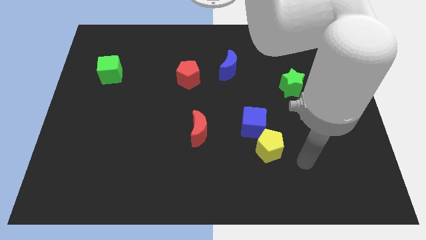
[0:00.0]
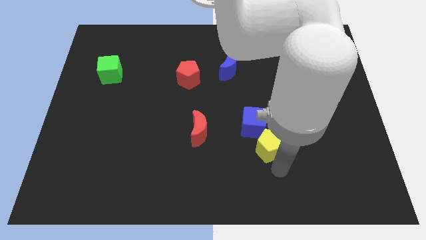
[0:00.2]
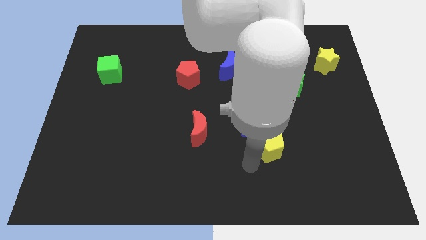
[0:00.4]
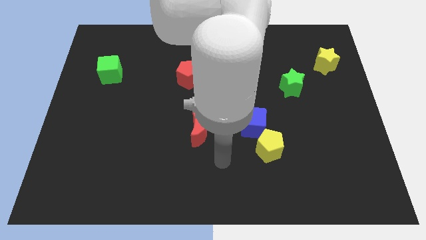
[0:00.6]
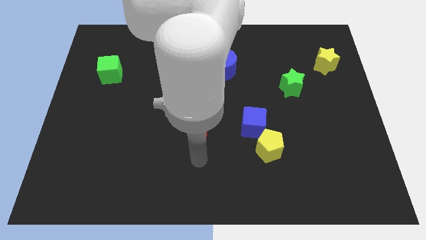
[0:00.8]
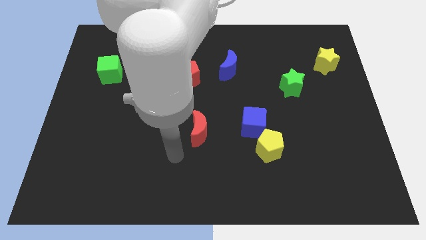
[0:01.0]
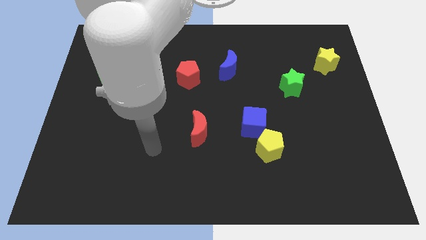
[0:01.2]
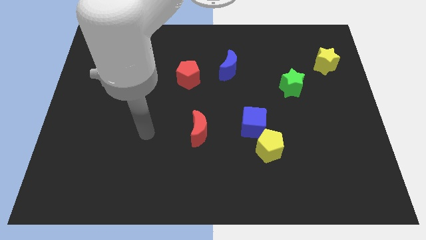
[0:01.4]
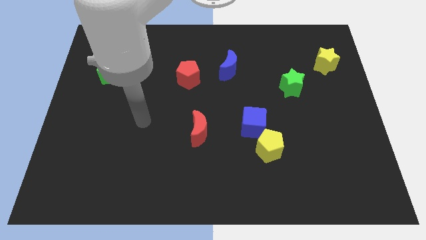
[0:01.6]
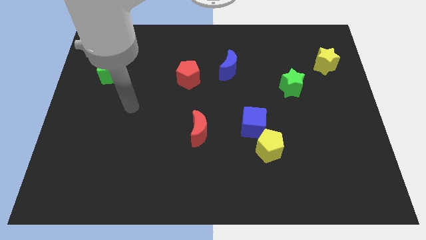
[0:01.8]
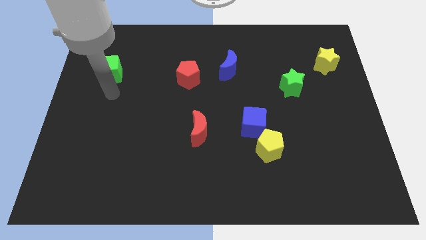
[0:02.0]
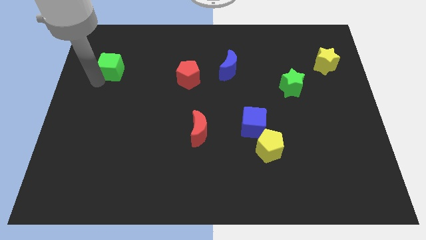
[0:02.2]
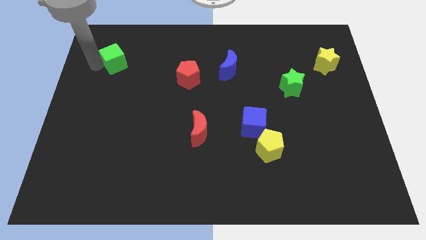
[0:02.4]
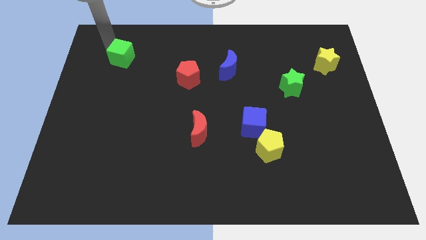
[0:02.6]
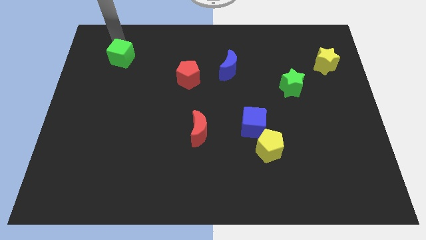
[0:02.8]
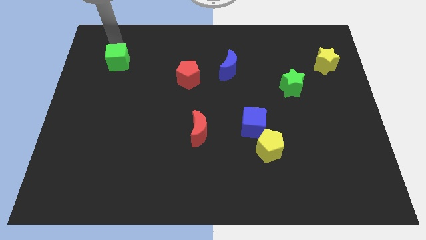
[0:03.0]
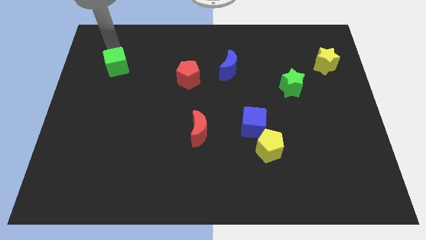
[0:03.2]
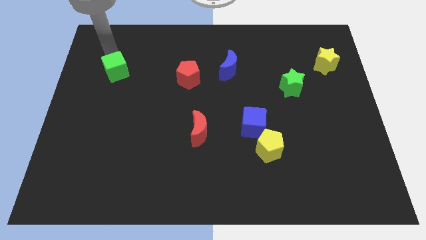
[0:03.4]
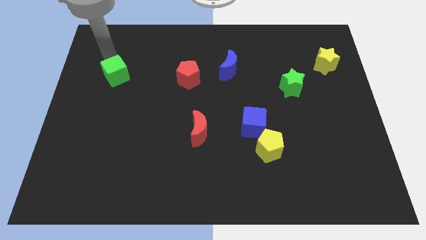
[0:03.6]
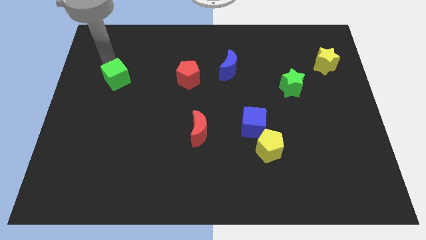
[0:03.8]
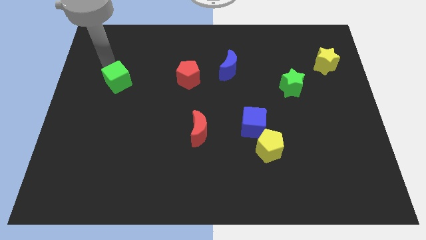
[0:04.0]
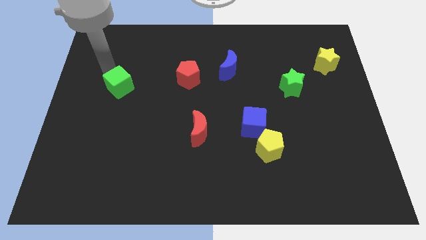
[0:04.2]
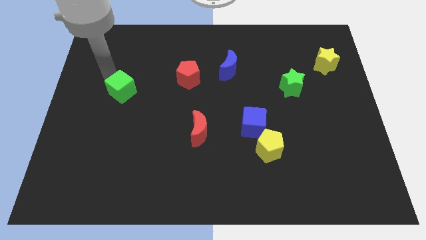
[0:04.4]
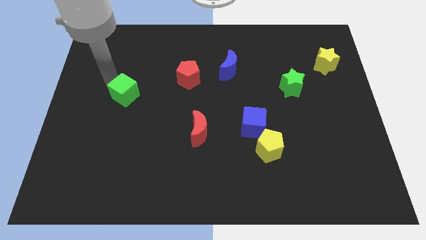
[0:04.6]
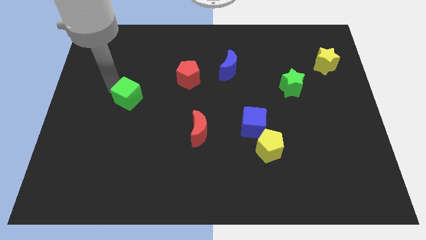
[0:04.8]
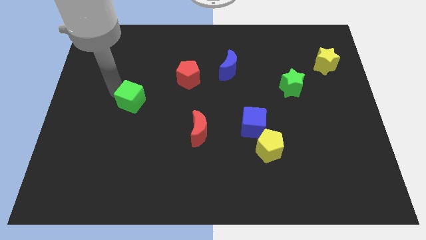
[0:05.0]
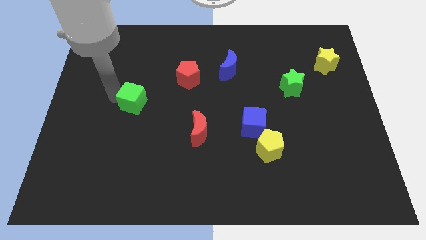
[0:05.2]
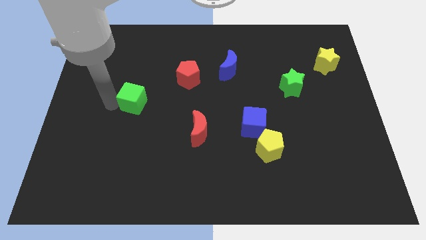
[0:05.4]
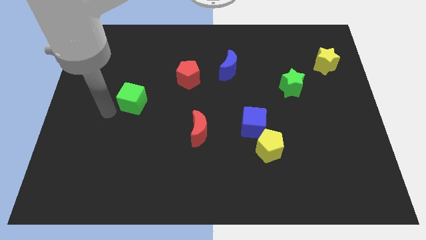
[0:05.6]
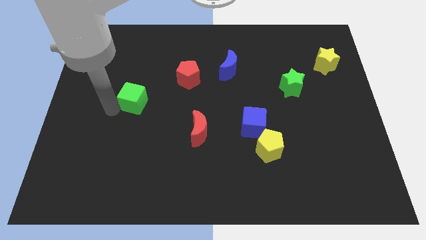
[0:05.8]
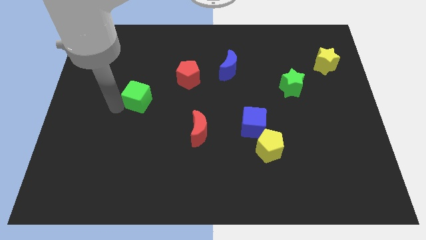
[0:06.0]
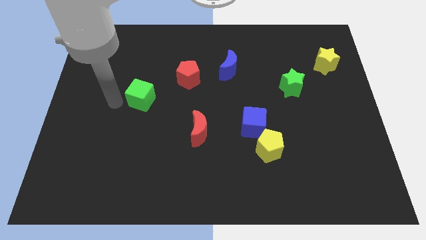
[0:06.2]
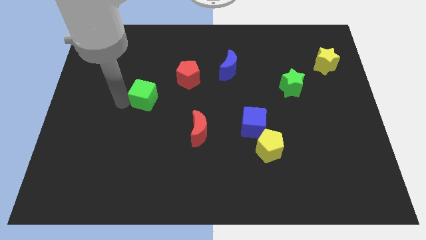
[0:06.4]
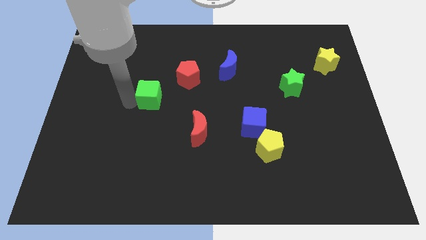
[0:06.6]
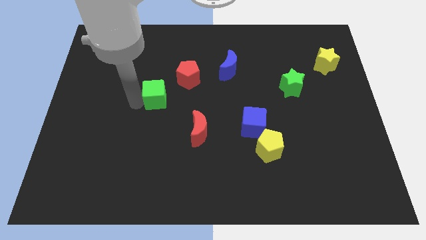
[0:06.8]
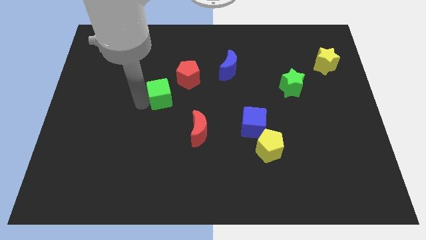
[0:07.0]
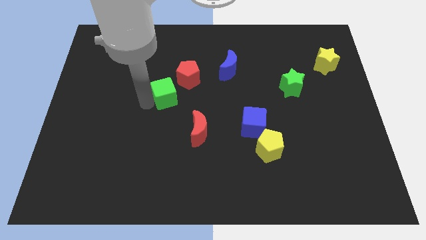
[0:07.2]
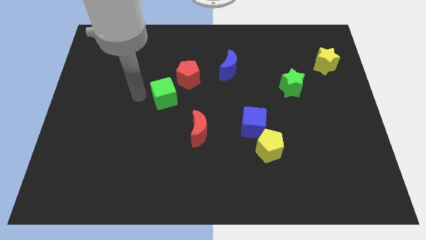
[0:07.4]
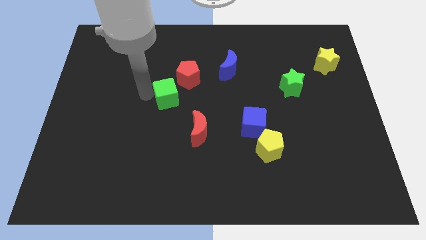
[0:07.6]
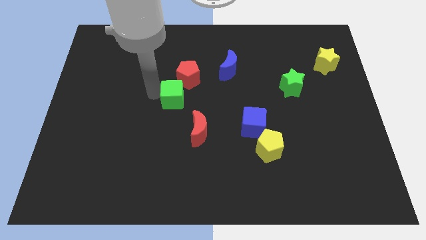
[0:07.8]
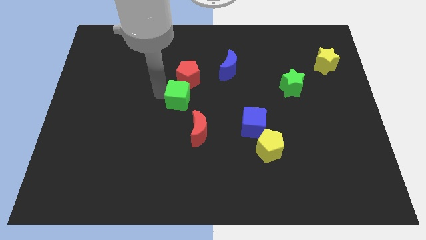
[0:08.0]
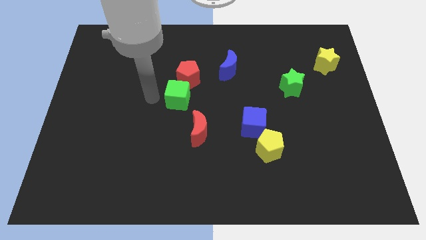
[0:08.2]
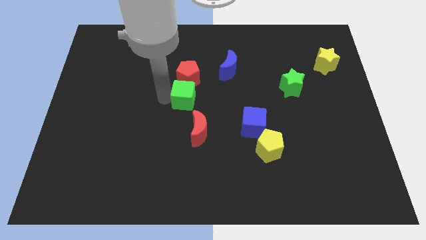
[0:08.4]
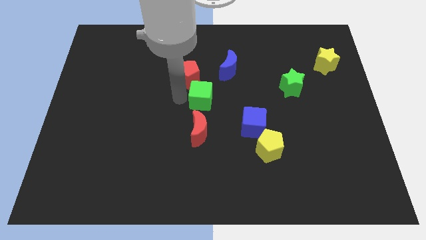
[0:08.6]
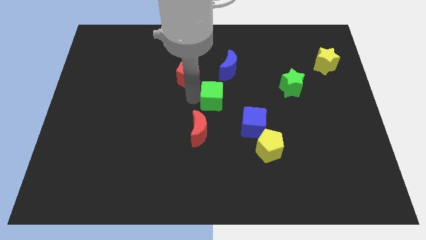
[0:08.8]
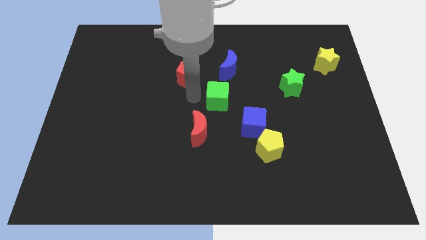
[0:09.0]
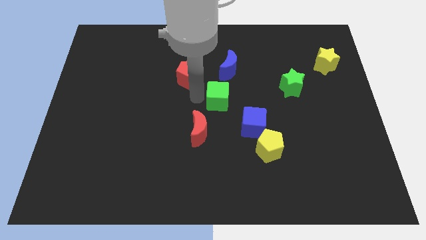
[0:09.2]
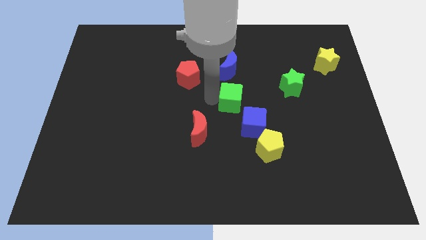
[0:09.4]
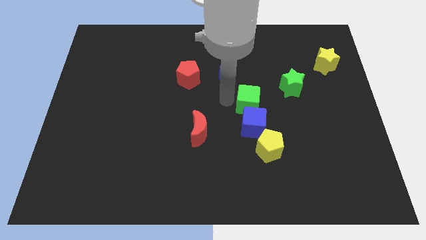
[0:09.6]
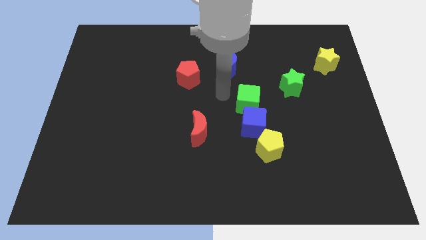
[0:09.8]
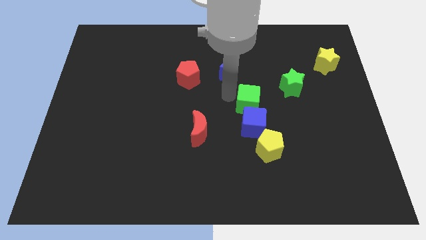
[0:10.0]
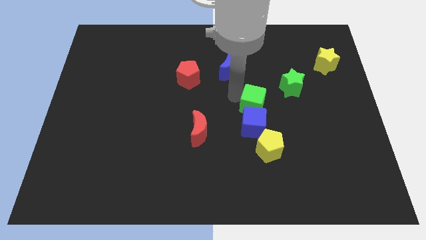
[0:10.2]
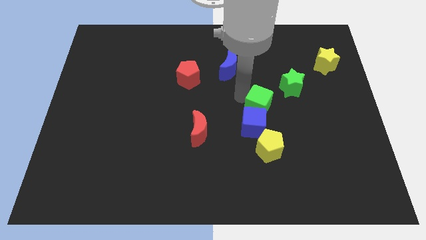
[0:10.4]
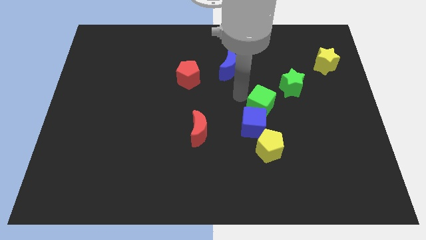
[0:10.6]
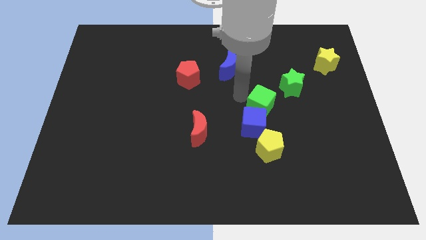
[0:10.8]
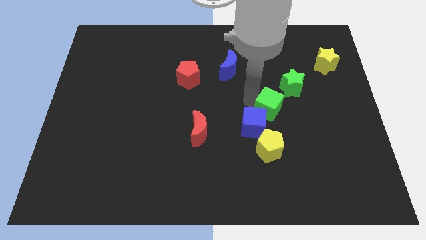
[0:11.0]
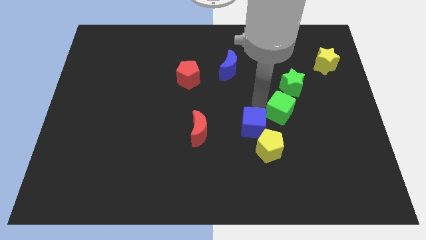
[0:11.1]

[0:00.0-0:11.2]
move the green cube to the right of the blue cube

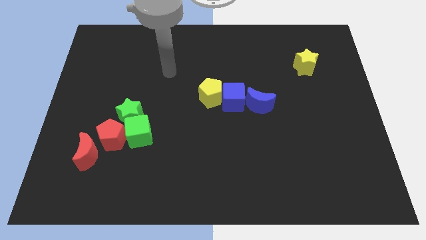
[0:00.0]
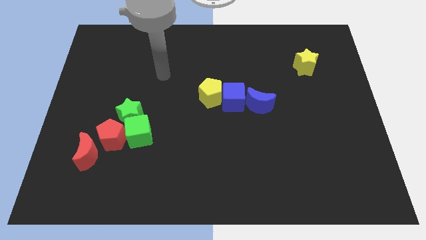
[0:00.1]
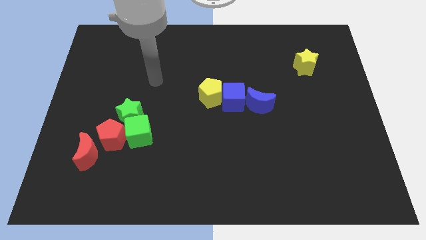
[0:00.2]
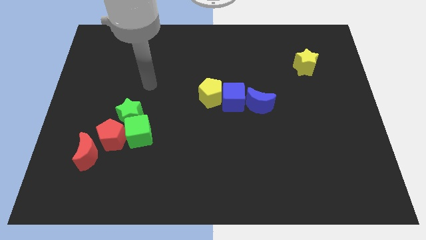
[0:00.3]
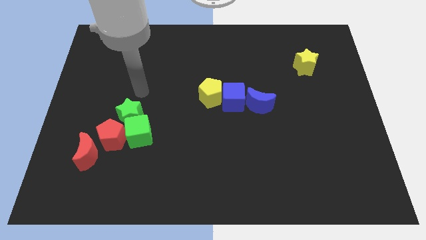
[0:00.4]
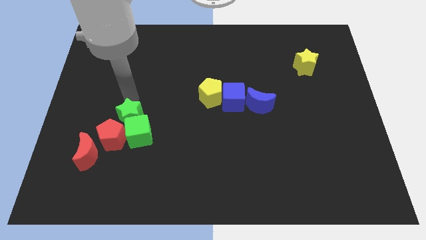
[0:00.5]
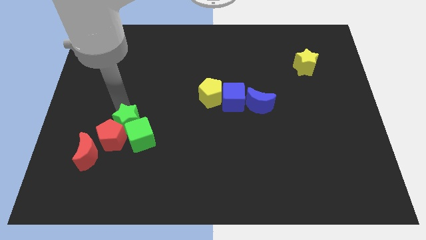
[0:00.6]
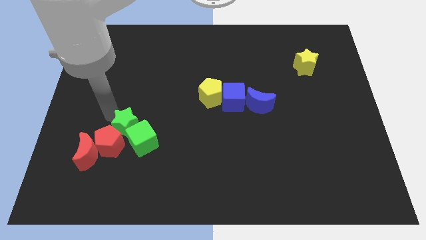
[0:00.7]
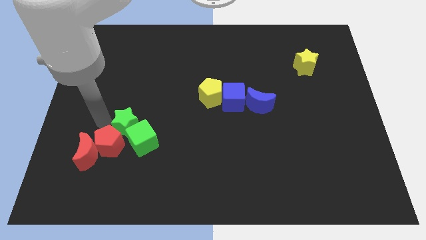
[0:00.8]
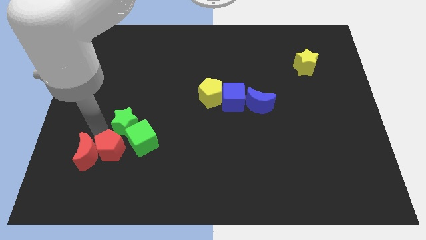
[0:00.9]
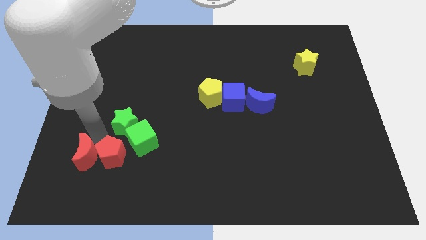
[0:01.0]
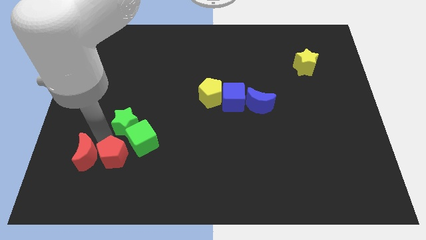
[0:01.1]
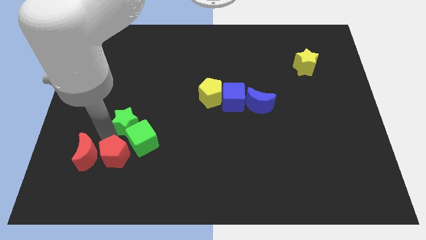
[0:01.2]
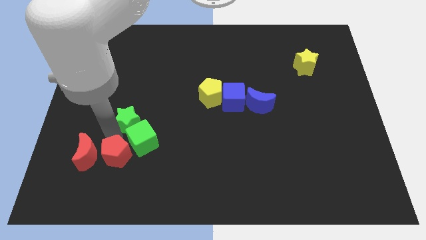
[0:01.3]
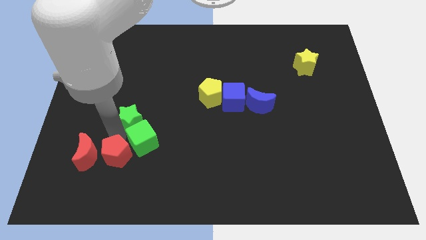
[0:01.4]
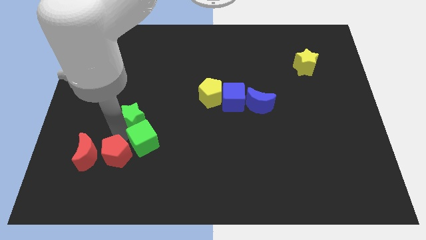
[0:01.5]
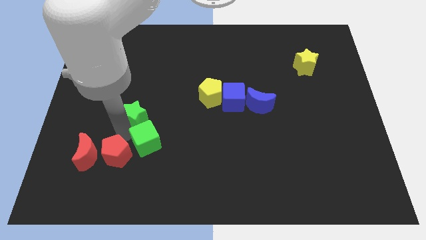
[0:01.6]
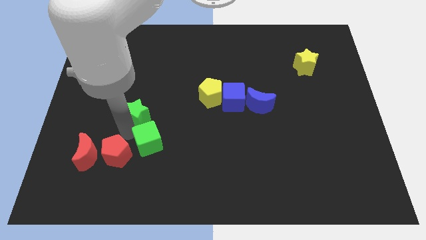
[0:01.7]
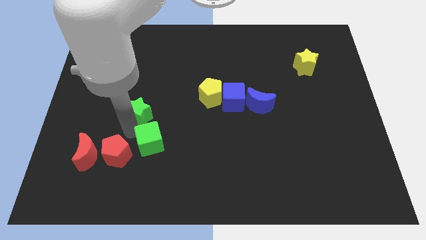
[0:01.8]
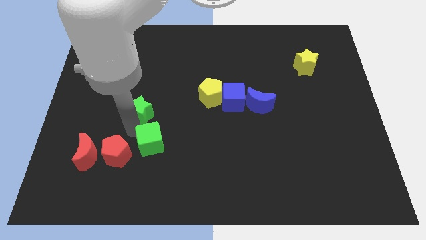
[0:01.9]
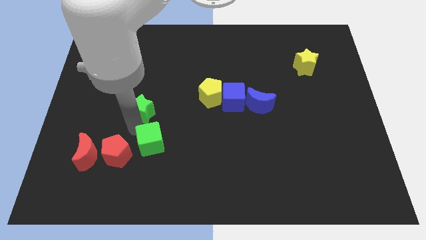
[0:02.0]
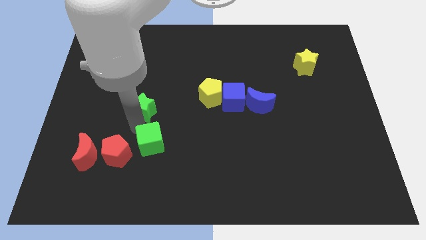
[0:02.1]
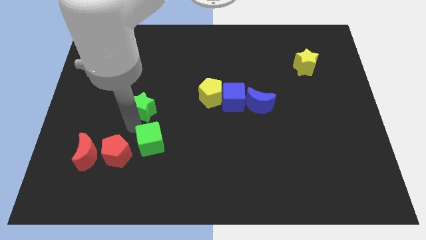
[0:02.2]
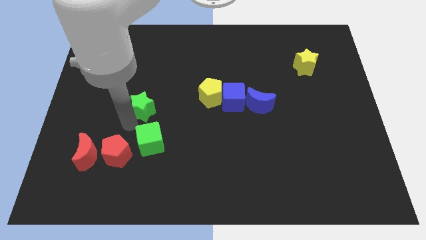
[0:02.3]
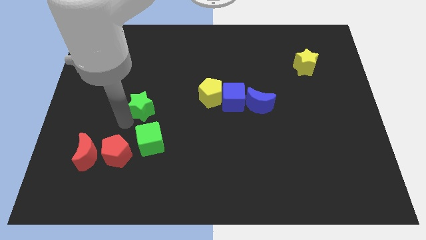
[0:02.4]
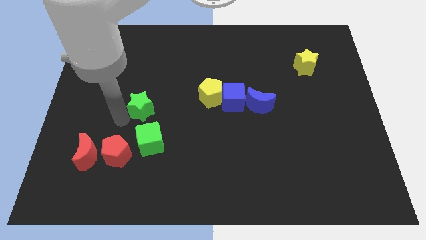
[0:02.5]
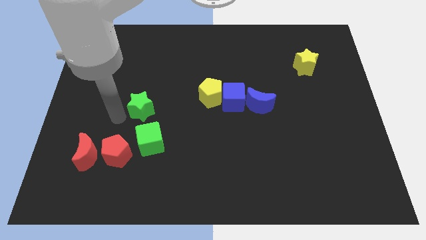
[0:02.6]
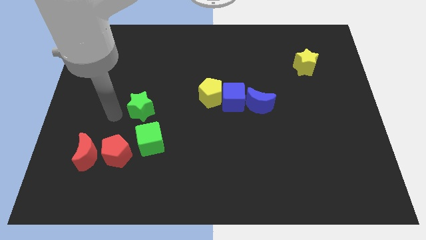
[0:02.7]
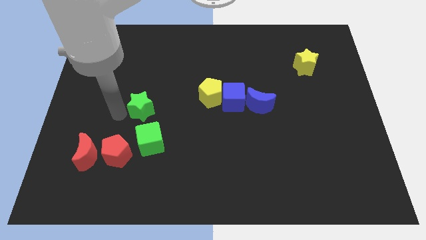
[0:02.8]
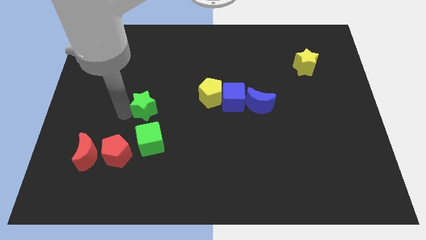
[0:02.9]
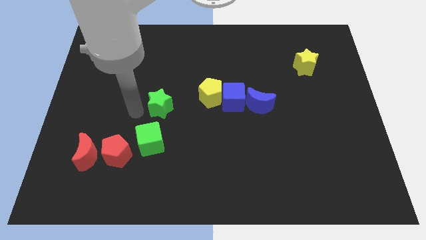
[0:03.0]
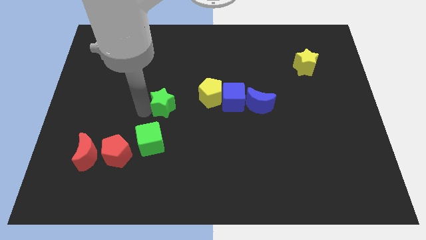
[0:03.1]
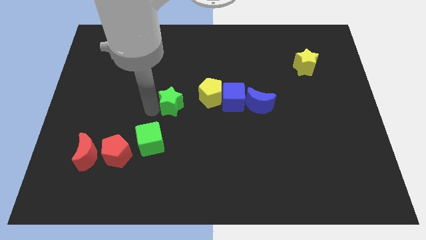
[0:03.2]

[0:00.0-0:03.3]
push the green star just left of the blue cube
